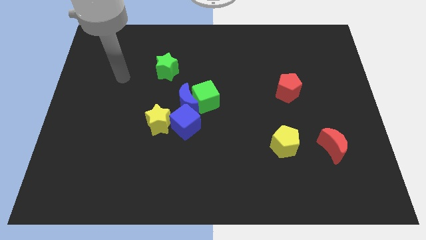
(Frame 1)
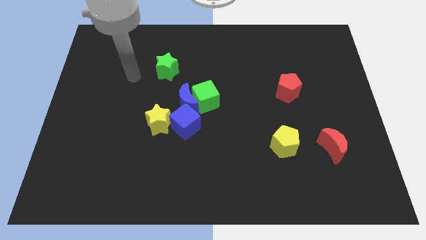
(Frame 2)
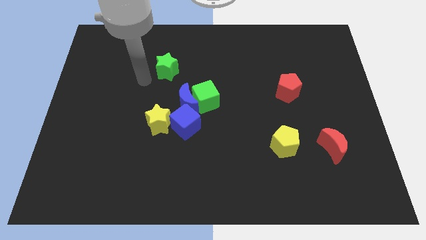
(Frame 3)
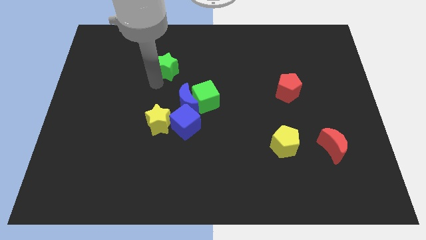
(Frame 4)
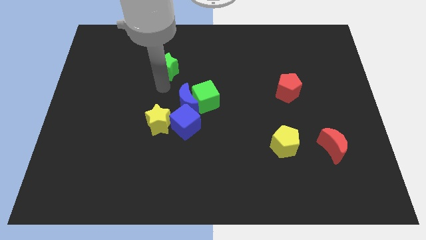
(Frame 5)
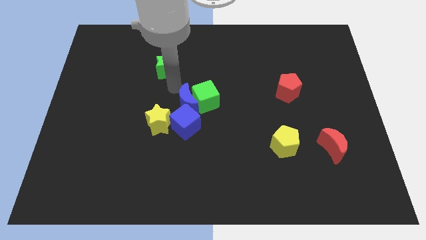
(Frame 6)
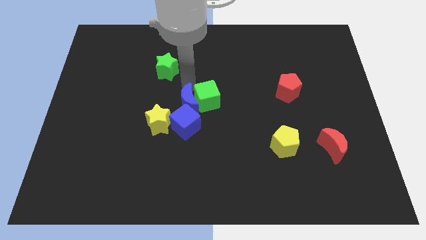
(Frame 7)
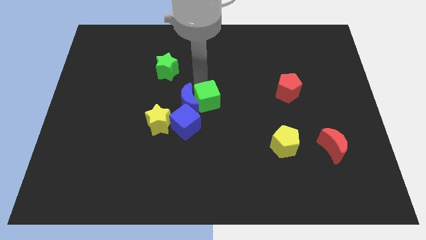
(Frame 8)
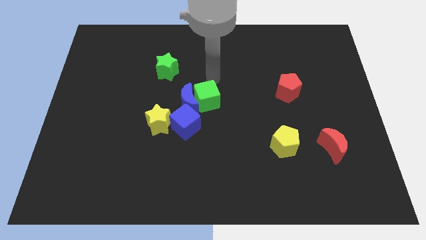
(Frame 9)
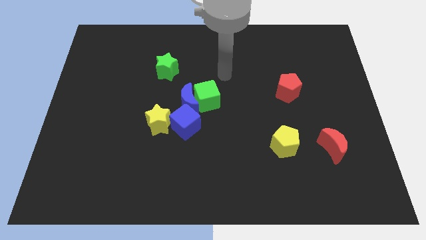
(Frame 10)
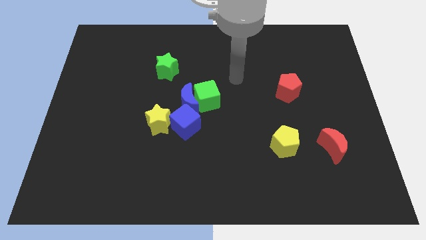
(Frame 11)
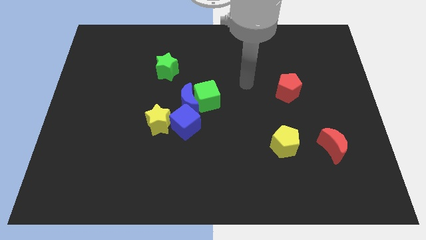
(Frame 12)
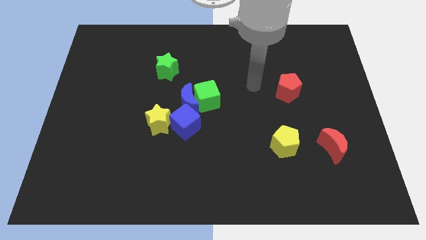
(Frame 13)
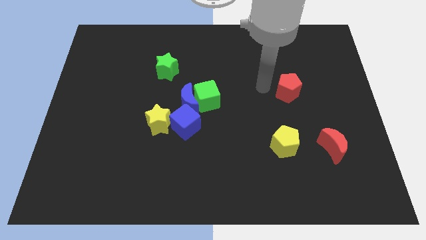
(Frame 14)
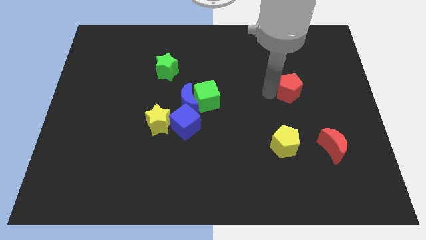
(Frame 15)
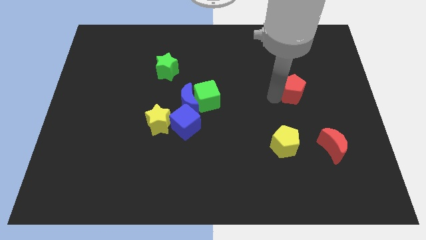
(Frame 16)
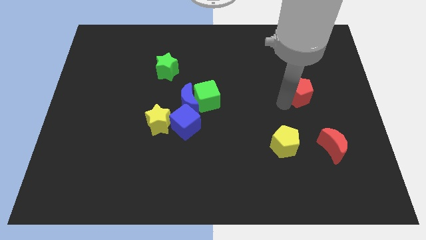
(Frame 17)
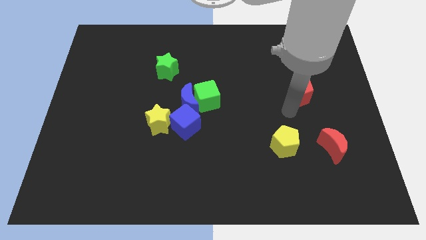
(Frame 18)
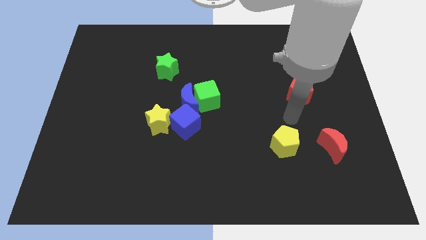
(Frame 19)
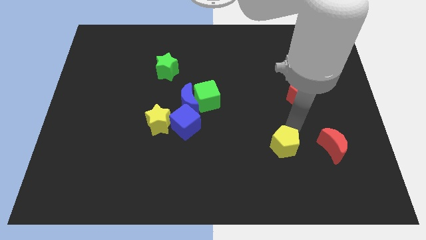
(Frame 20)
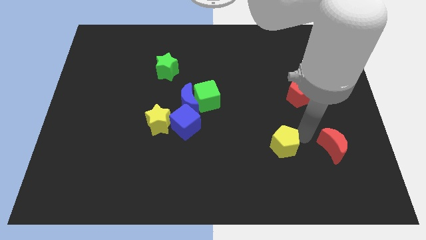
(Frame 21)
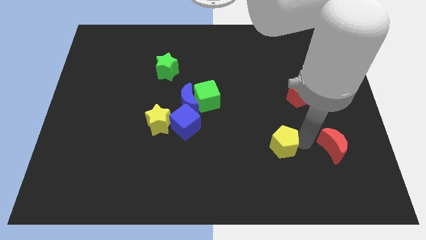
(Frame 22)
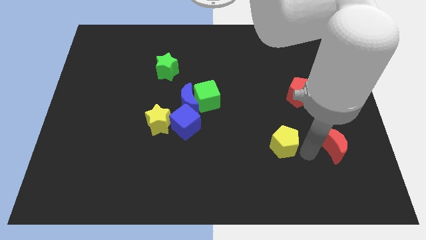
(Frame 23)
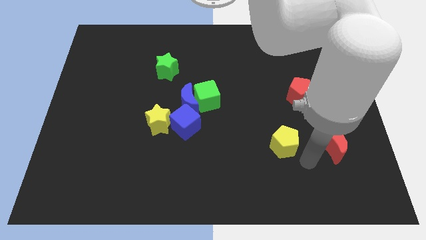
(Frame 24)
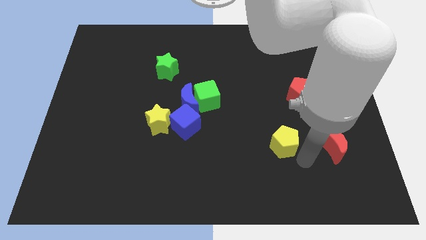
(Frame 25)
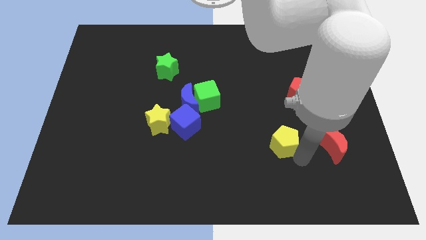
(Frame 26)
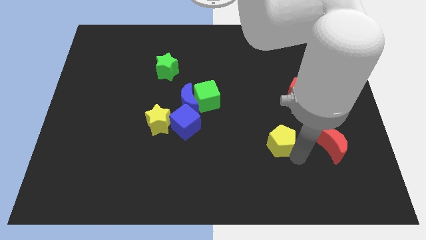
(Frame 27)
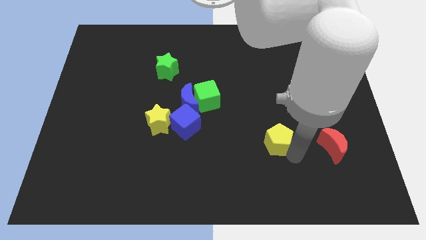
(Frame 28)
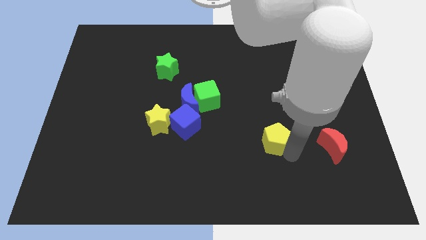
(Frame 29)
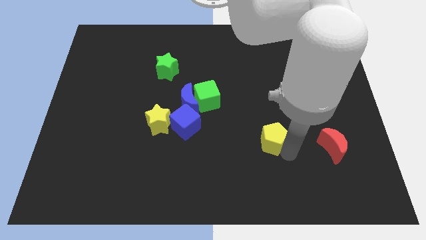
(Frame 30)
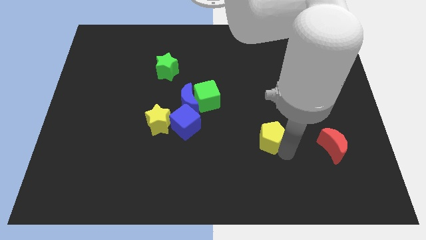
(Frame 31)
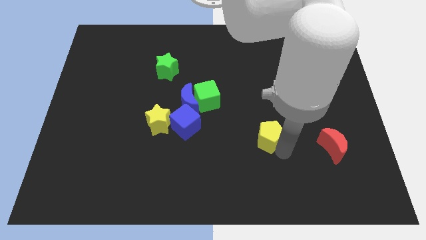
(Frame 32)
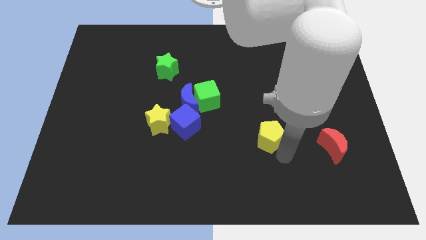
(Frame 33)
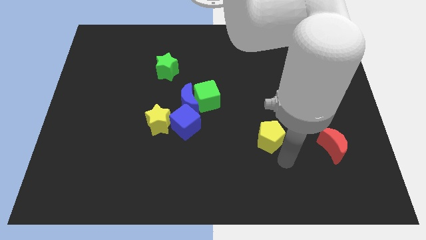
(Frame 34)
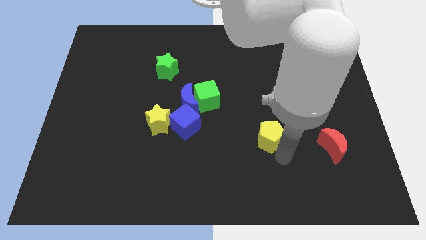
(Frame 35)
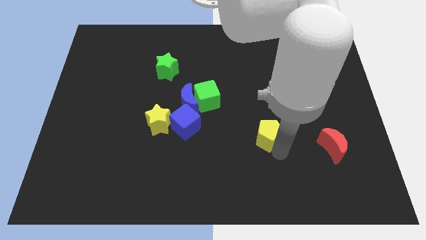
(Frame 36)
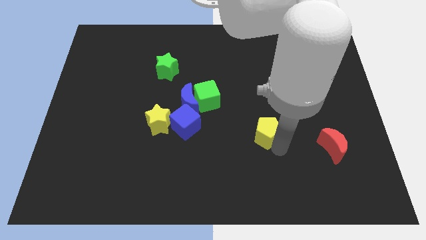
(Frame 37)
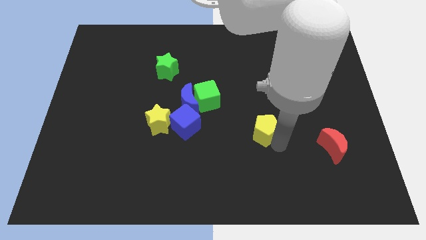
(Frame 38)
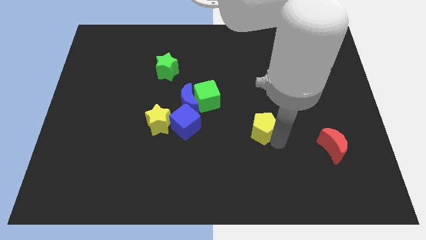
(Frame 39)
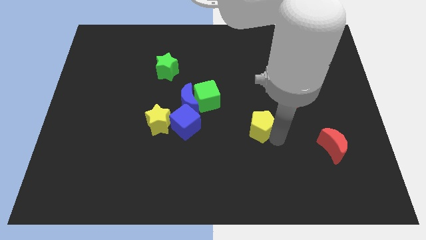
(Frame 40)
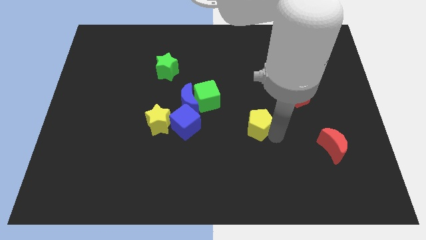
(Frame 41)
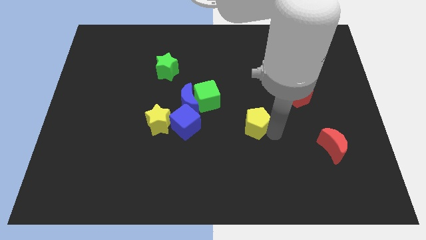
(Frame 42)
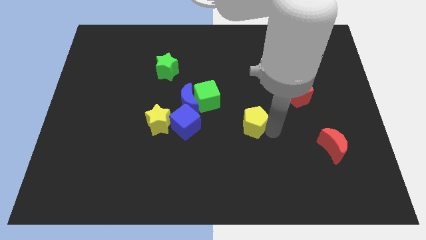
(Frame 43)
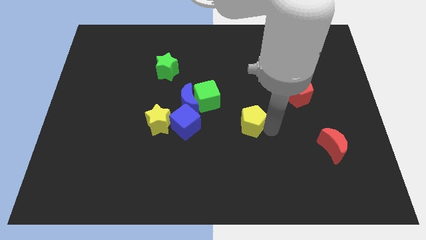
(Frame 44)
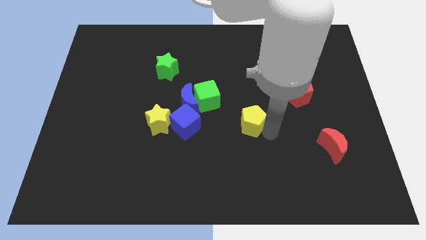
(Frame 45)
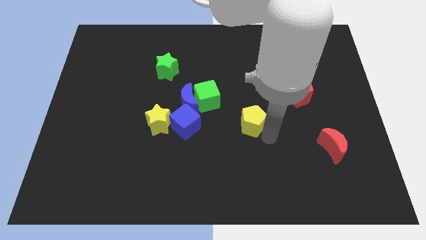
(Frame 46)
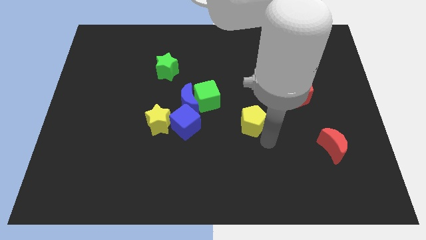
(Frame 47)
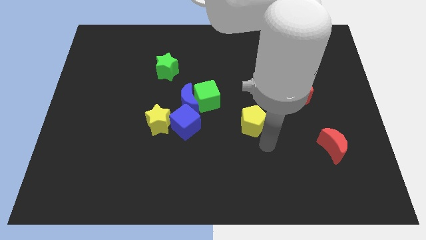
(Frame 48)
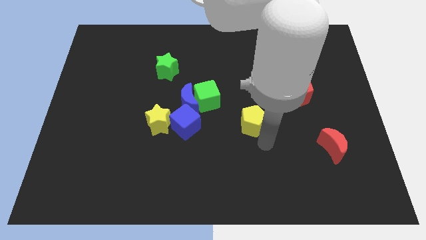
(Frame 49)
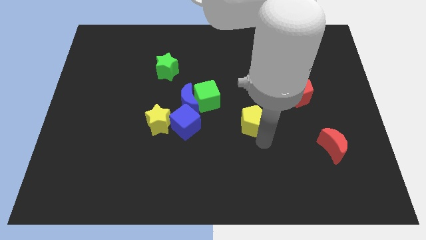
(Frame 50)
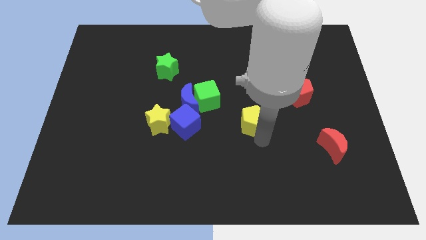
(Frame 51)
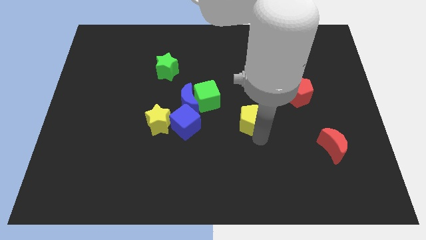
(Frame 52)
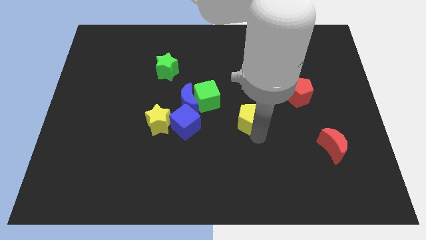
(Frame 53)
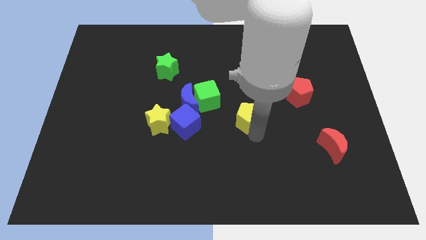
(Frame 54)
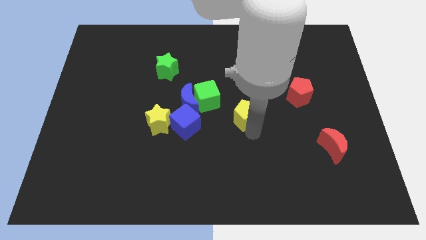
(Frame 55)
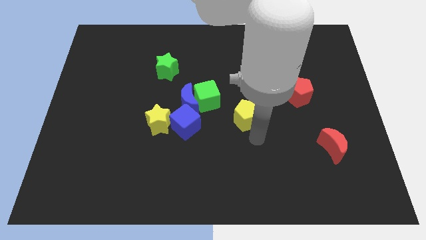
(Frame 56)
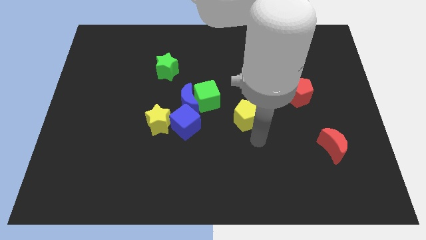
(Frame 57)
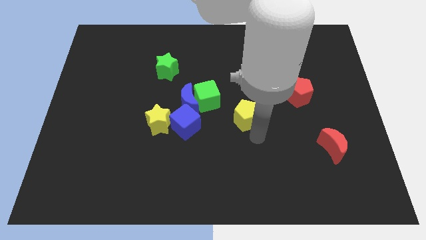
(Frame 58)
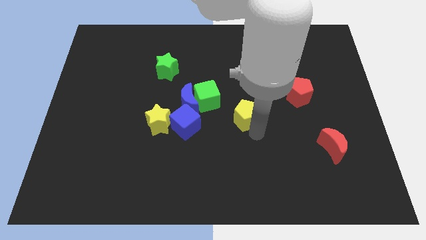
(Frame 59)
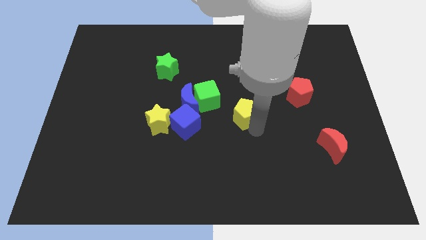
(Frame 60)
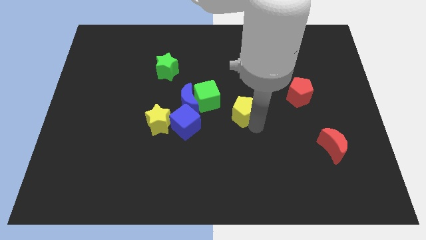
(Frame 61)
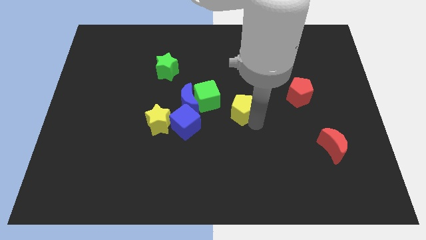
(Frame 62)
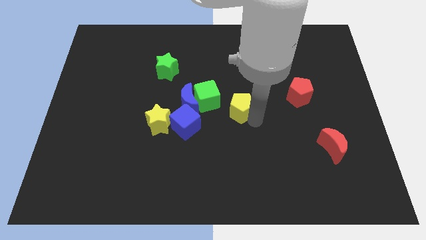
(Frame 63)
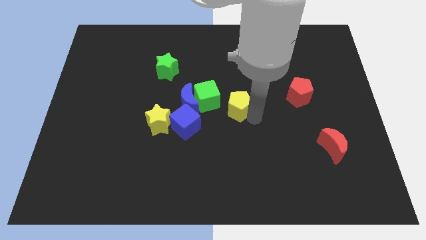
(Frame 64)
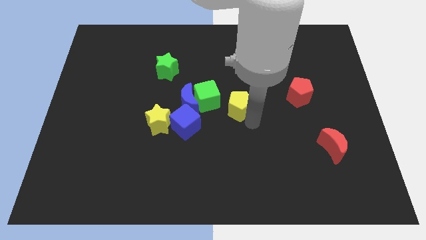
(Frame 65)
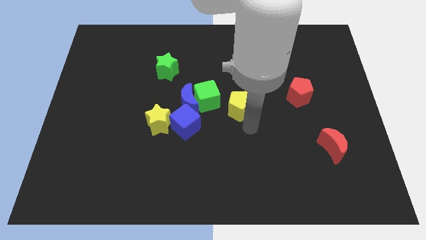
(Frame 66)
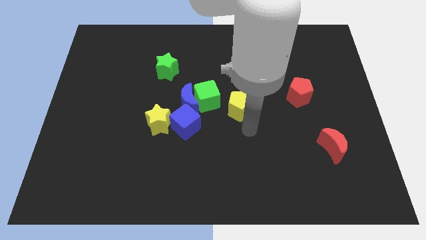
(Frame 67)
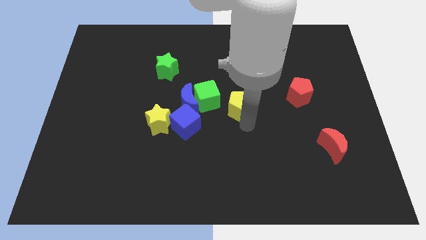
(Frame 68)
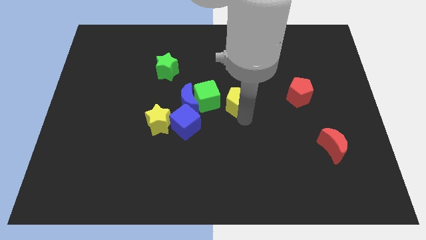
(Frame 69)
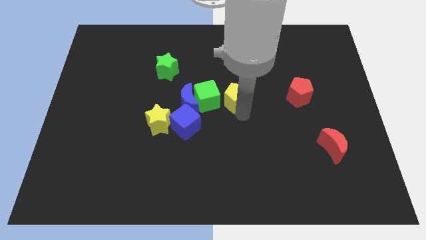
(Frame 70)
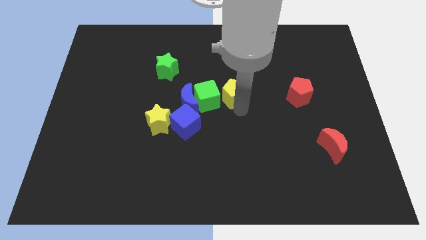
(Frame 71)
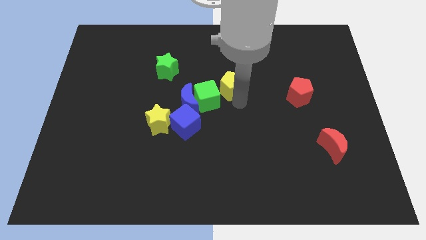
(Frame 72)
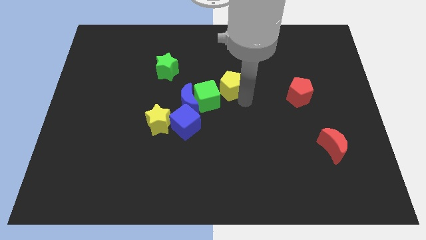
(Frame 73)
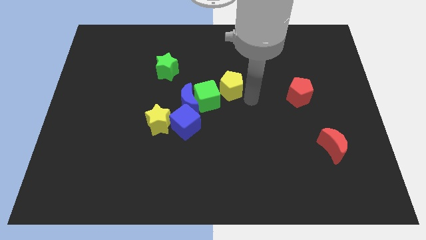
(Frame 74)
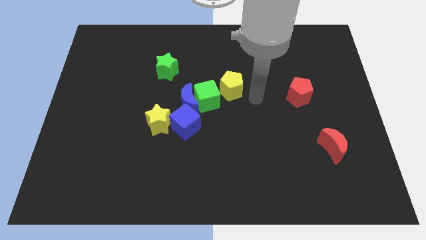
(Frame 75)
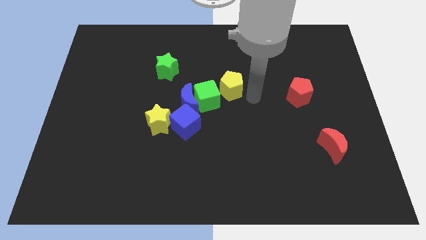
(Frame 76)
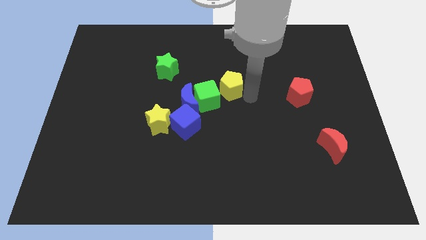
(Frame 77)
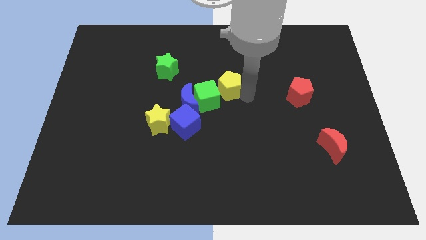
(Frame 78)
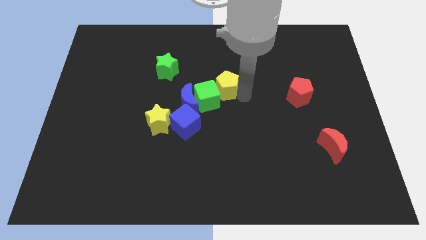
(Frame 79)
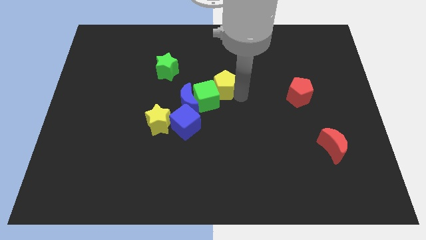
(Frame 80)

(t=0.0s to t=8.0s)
slide the yellow pentagon upwards and left diagonally
